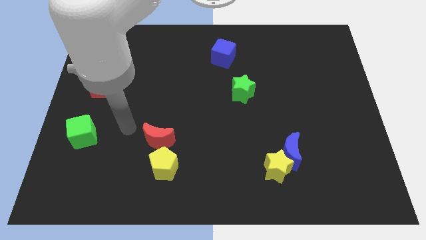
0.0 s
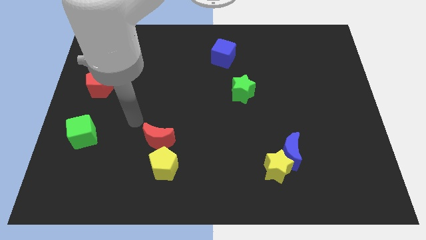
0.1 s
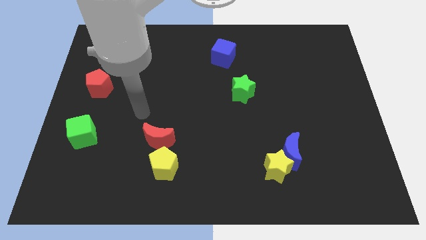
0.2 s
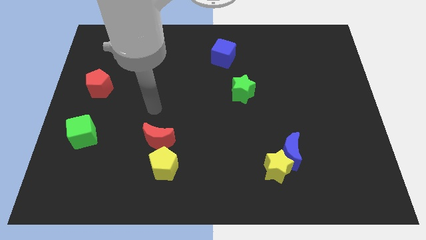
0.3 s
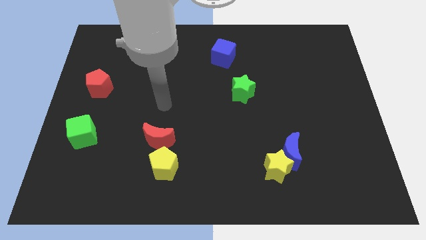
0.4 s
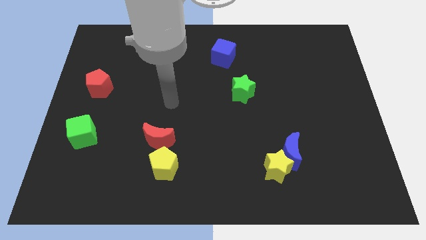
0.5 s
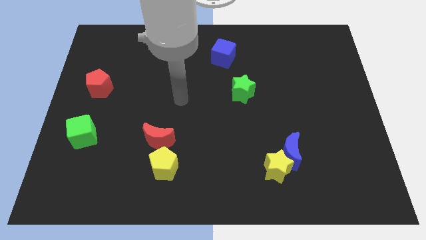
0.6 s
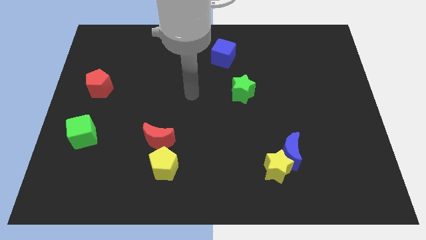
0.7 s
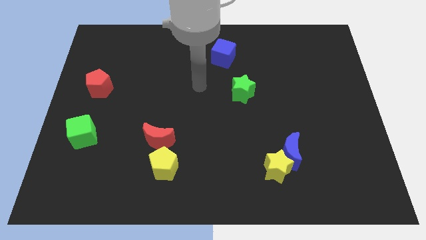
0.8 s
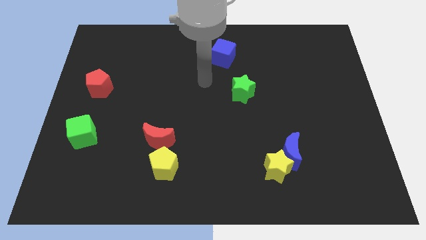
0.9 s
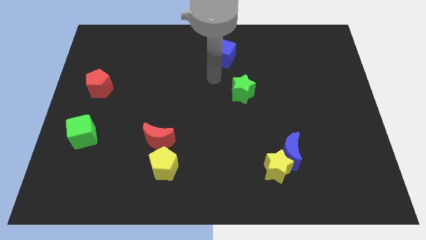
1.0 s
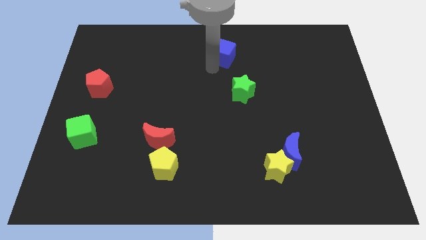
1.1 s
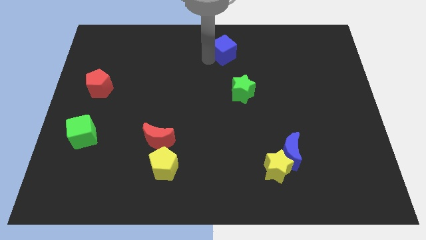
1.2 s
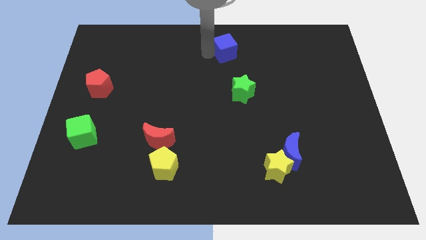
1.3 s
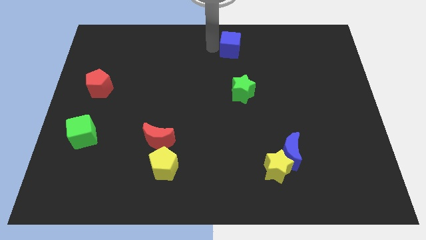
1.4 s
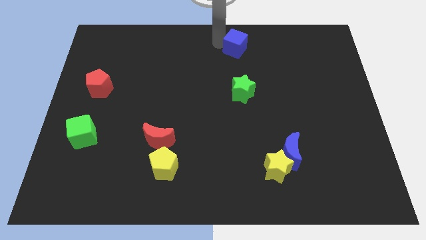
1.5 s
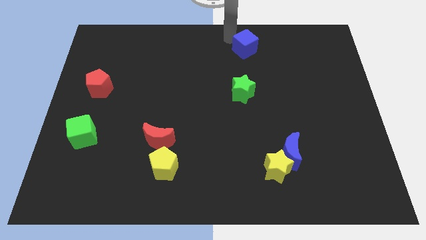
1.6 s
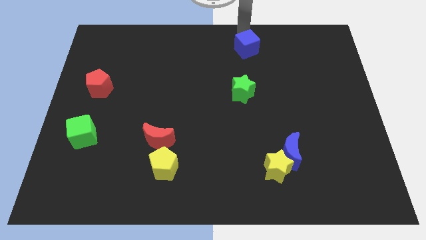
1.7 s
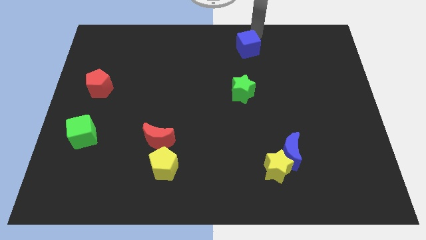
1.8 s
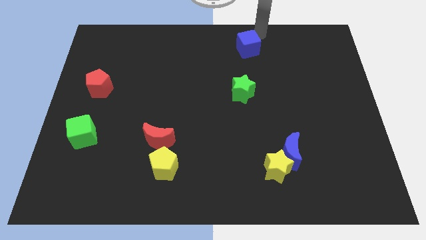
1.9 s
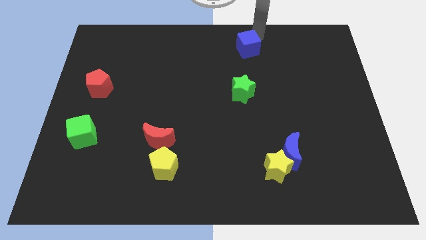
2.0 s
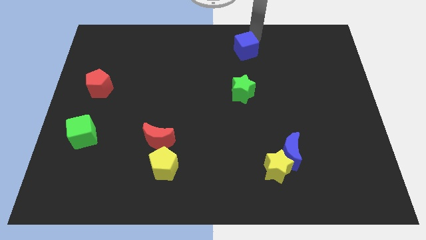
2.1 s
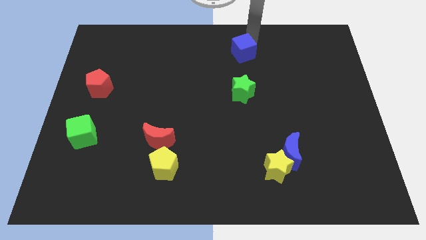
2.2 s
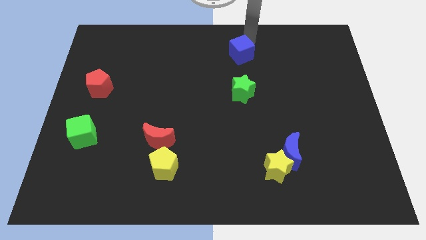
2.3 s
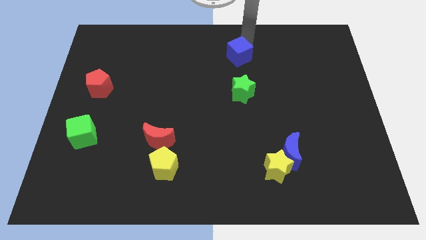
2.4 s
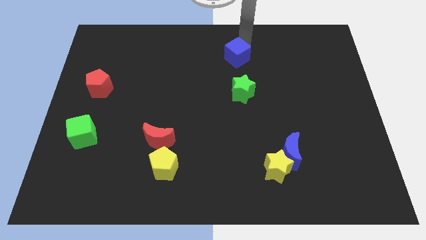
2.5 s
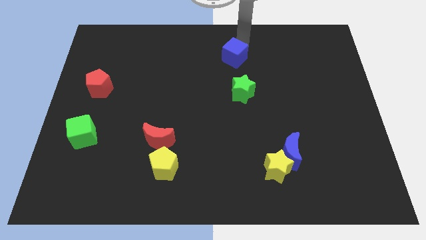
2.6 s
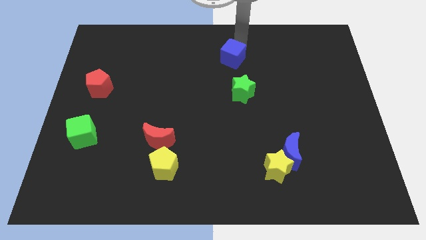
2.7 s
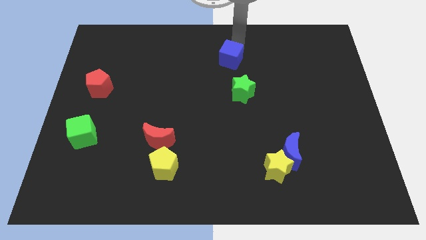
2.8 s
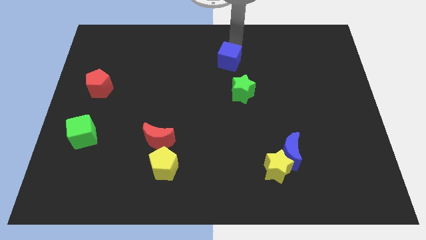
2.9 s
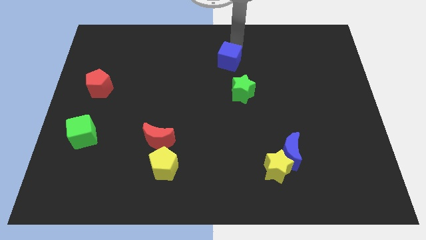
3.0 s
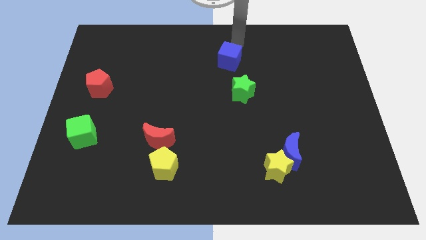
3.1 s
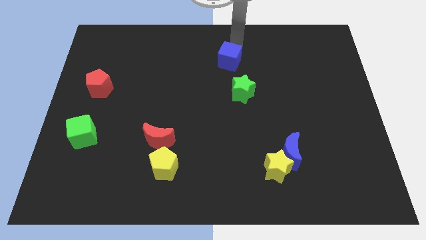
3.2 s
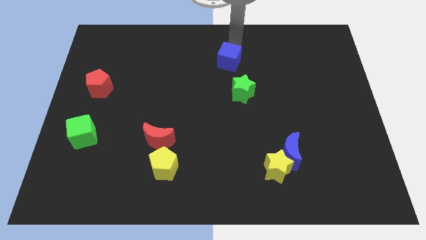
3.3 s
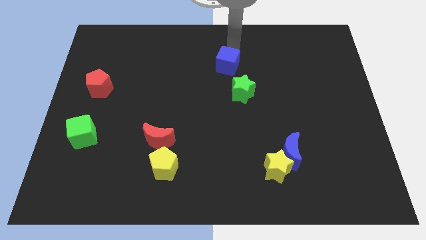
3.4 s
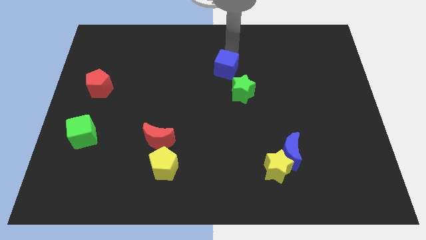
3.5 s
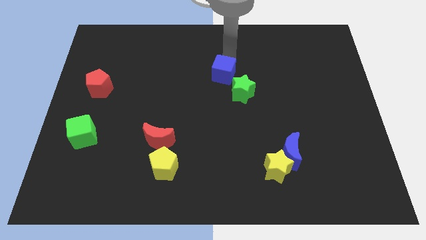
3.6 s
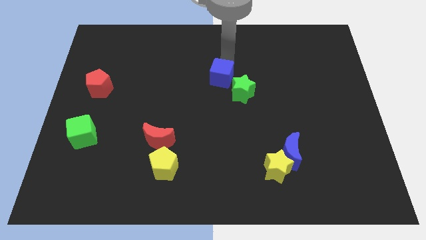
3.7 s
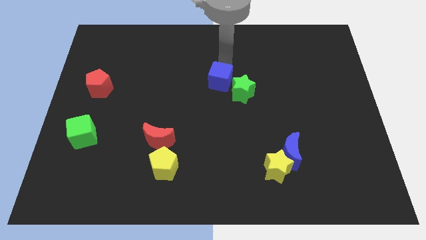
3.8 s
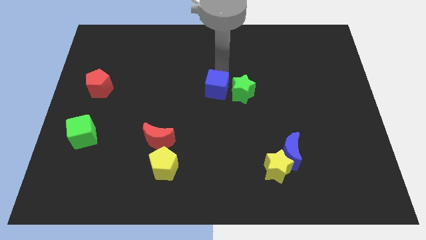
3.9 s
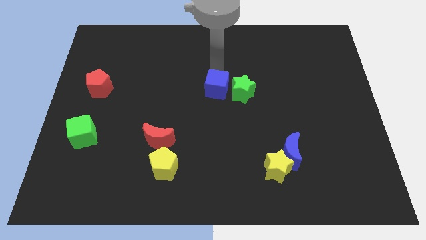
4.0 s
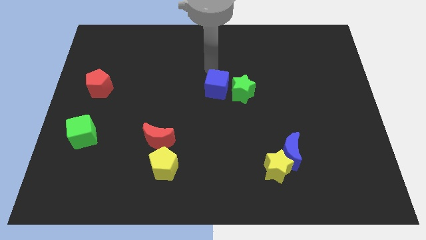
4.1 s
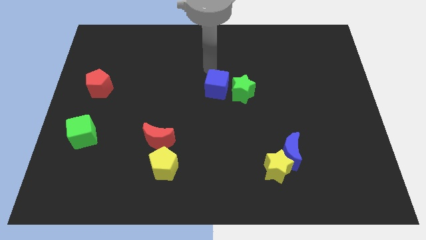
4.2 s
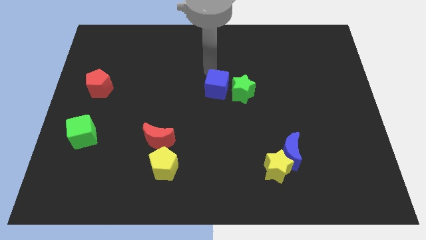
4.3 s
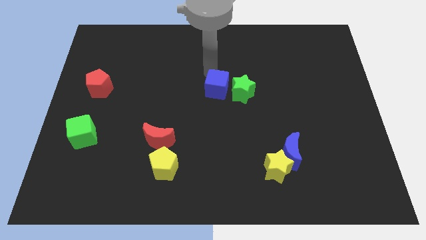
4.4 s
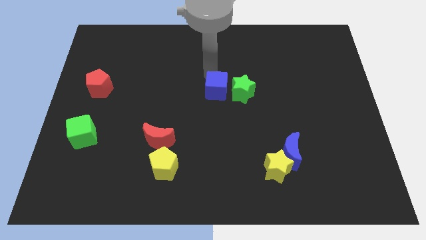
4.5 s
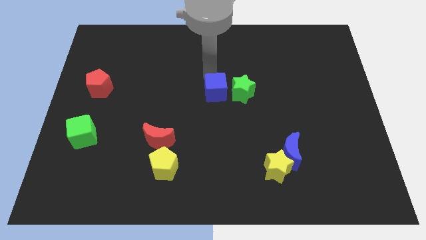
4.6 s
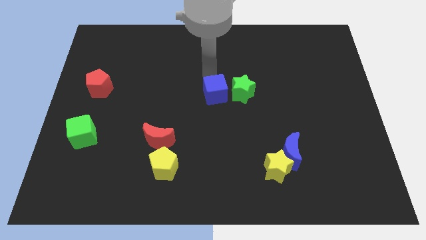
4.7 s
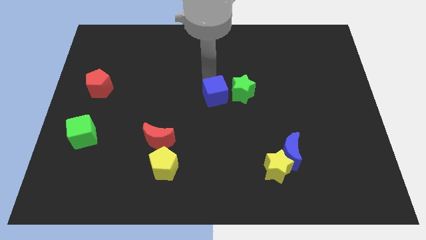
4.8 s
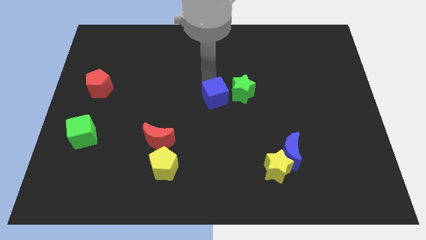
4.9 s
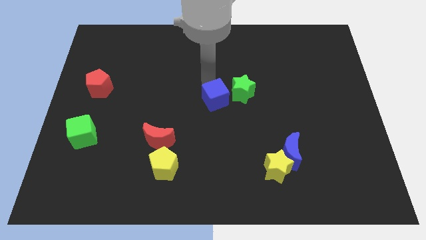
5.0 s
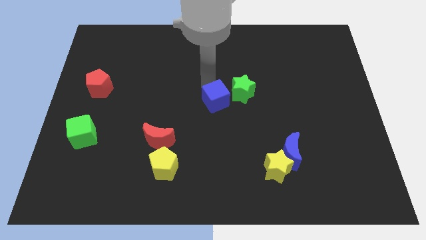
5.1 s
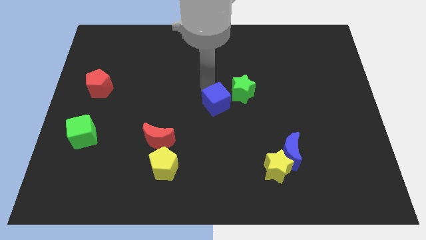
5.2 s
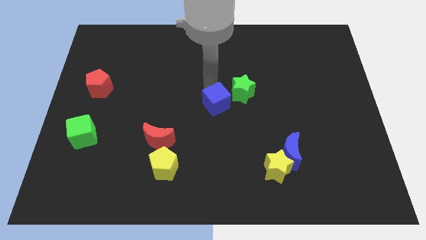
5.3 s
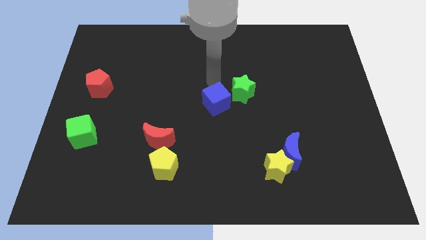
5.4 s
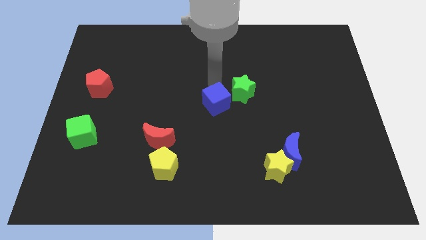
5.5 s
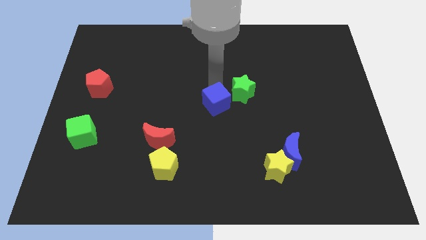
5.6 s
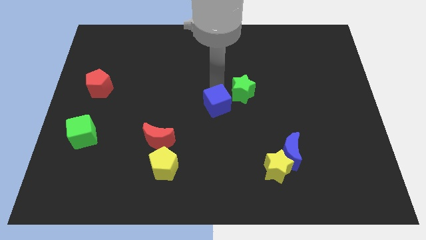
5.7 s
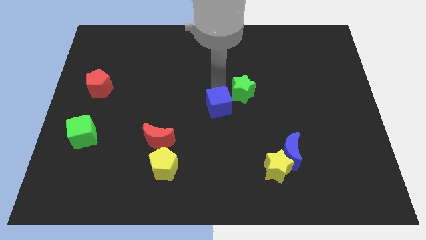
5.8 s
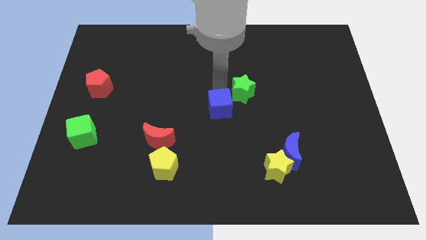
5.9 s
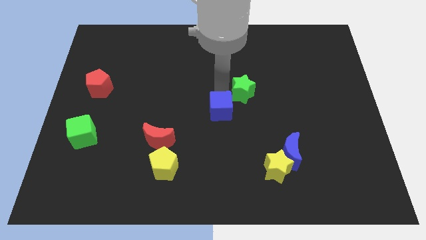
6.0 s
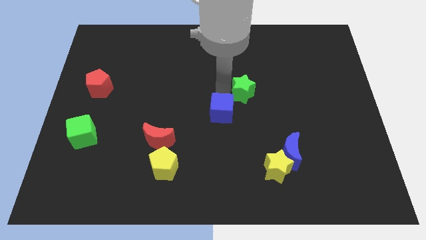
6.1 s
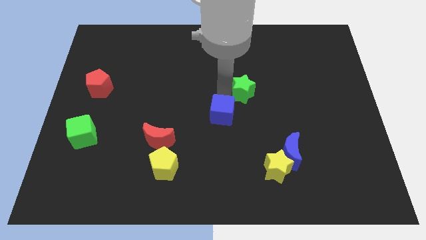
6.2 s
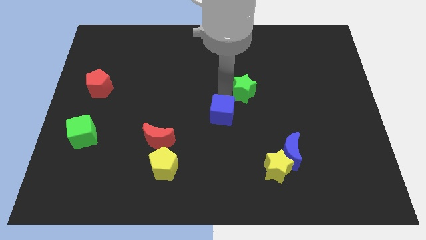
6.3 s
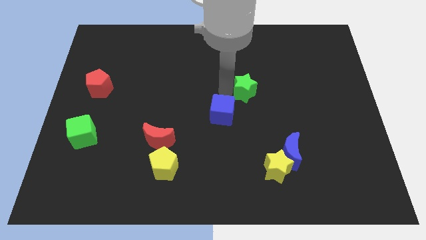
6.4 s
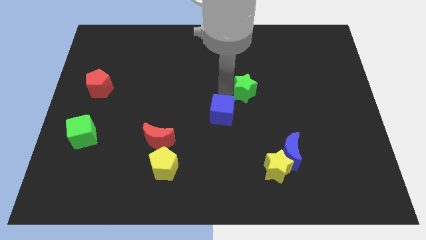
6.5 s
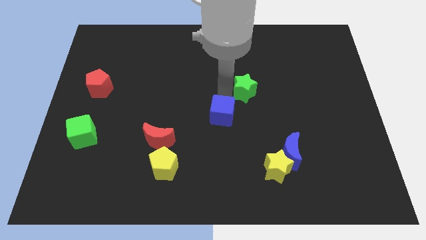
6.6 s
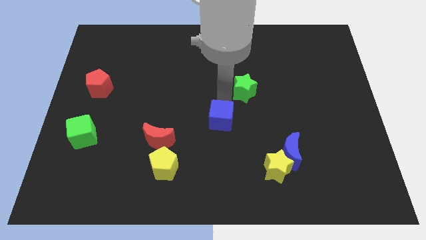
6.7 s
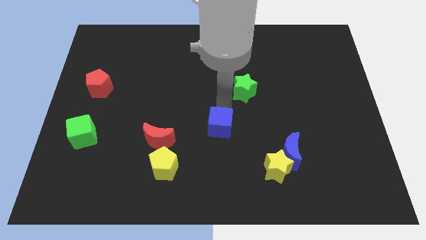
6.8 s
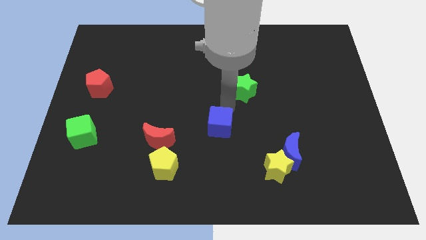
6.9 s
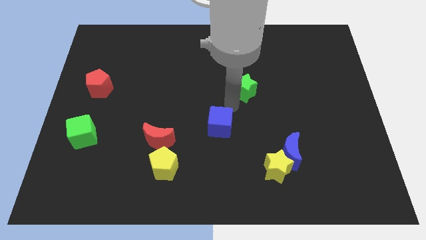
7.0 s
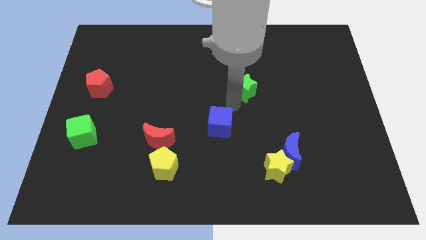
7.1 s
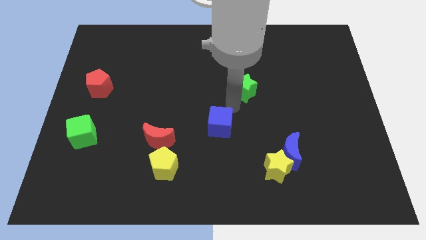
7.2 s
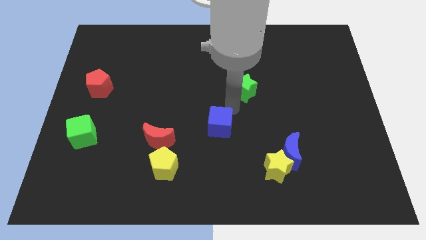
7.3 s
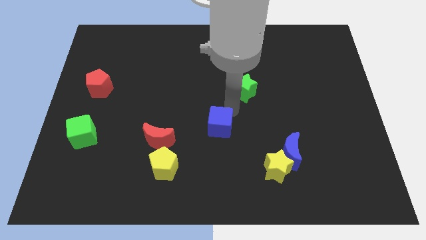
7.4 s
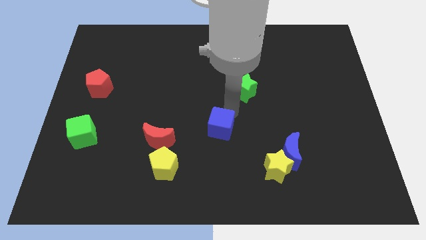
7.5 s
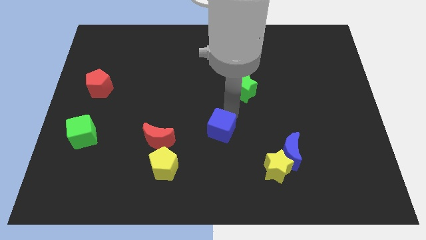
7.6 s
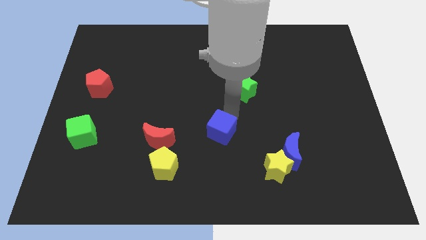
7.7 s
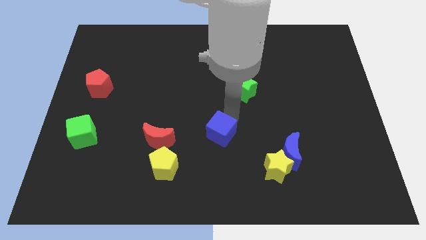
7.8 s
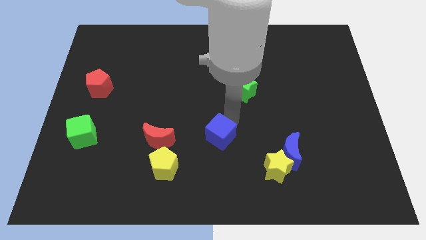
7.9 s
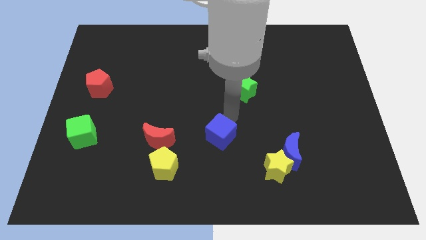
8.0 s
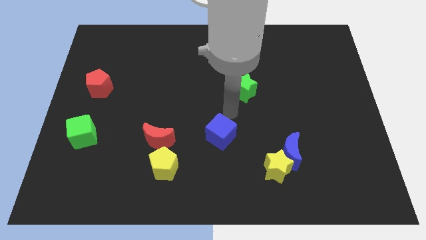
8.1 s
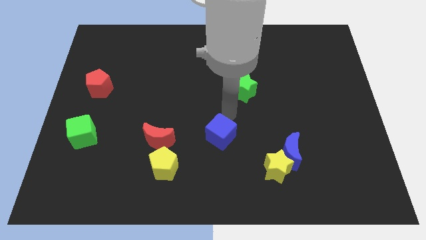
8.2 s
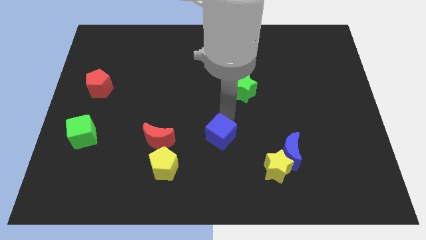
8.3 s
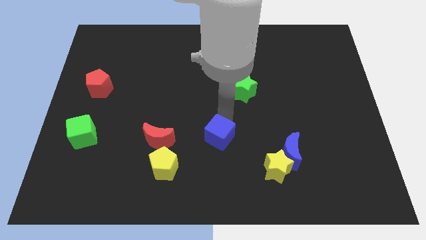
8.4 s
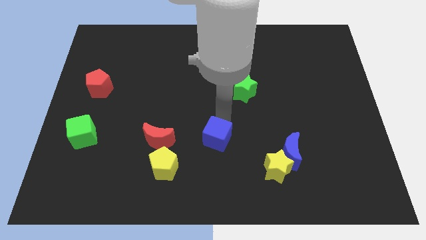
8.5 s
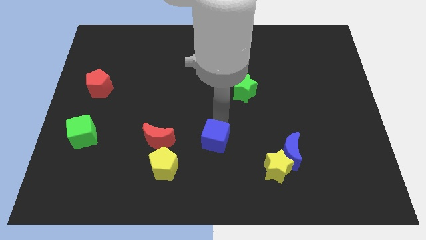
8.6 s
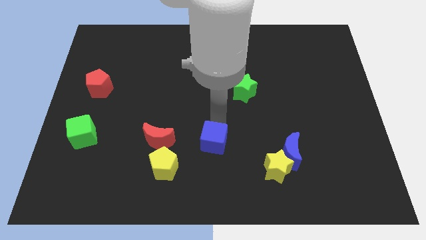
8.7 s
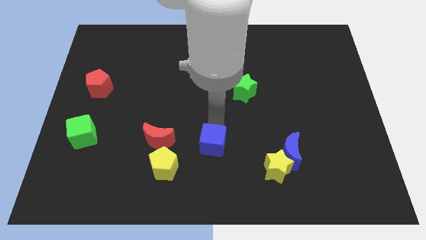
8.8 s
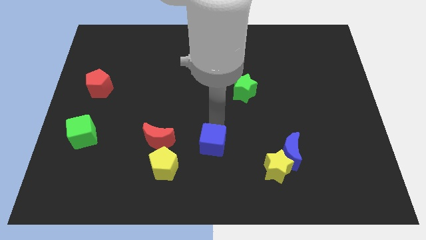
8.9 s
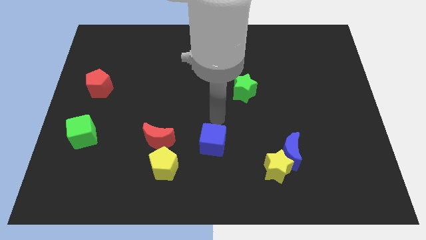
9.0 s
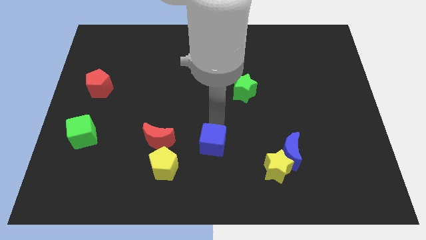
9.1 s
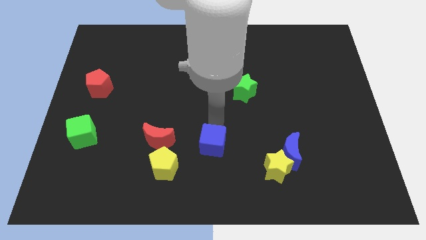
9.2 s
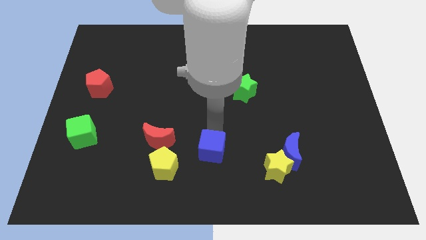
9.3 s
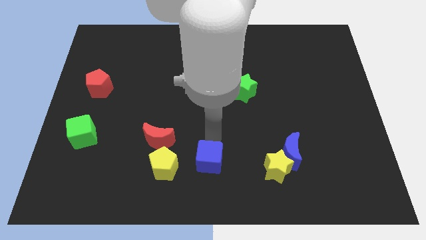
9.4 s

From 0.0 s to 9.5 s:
put the blue cube to the bottom side
